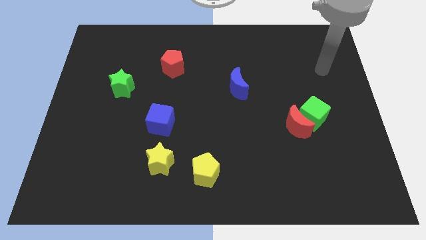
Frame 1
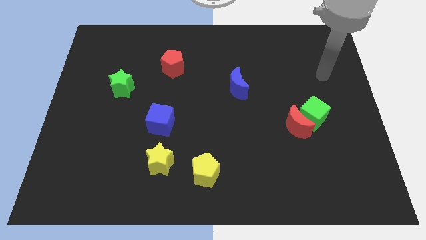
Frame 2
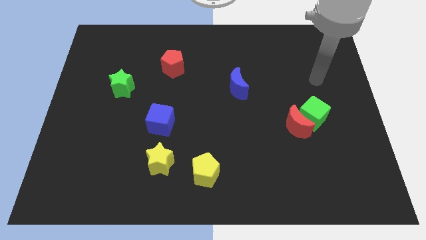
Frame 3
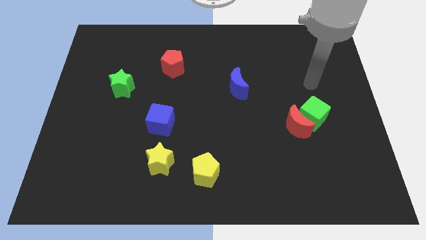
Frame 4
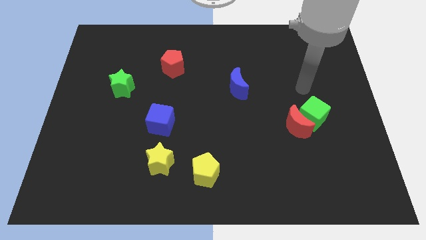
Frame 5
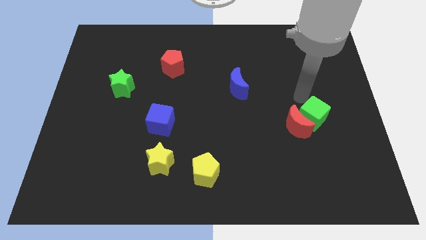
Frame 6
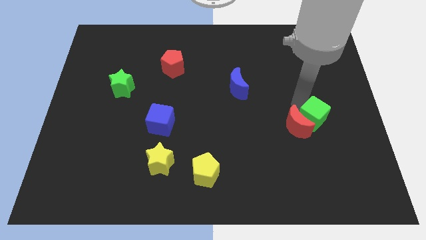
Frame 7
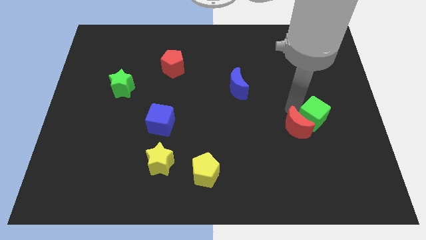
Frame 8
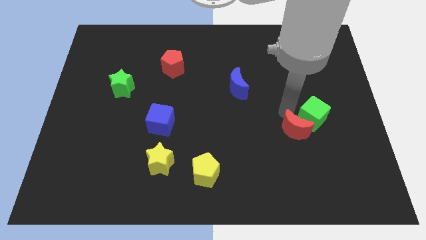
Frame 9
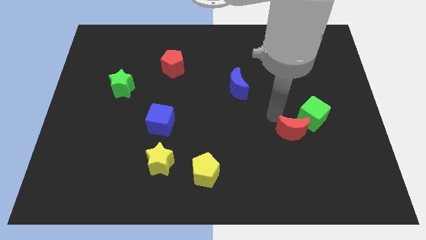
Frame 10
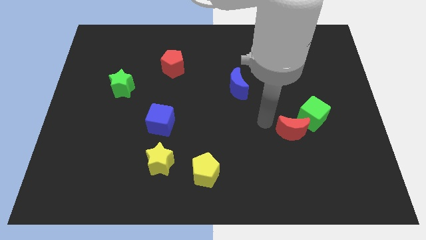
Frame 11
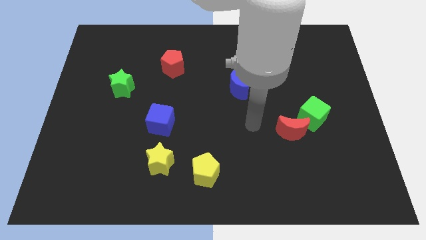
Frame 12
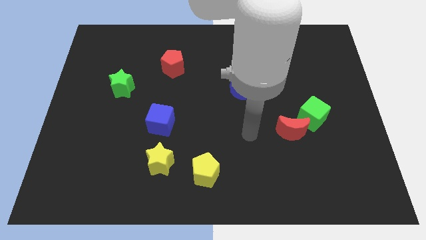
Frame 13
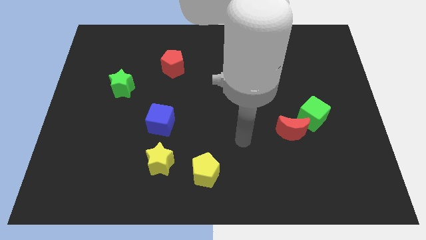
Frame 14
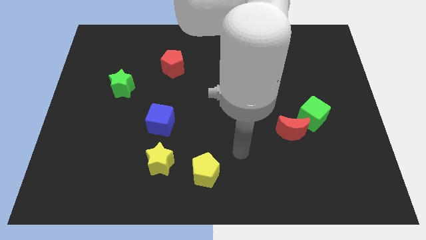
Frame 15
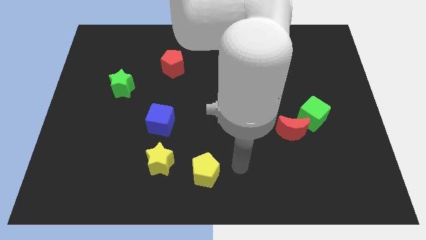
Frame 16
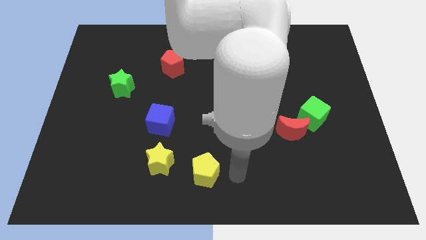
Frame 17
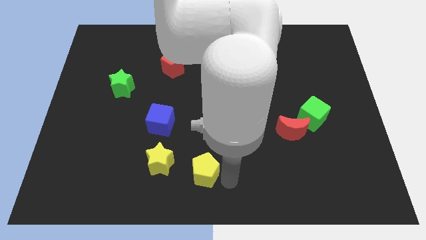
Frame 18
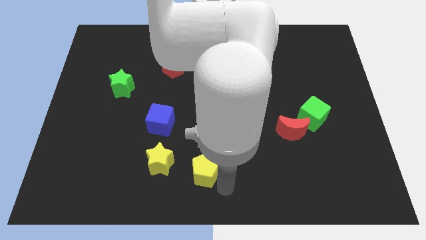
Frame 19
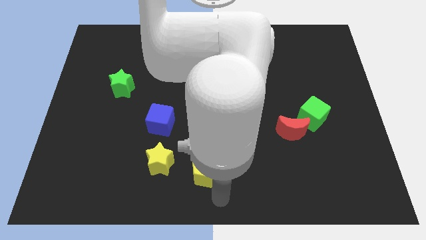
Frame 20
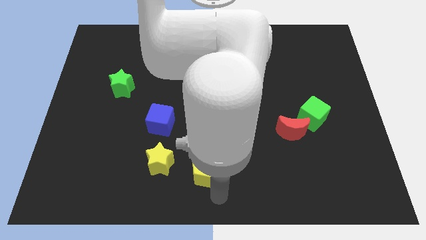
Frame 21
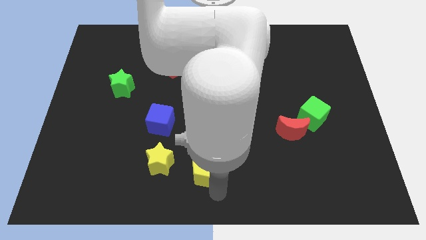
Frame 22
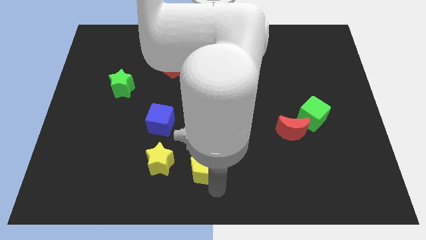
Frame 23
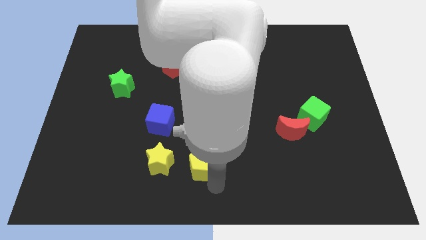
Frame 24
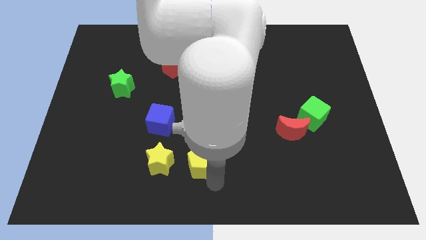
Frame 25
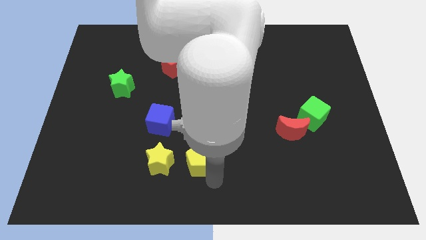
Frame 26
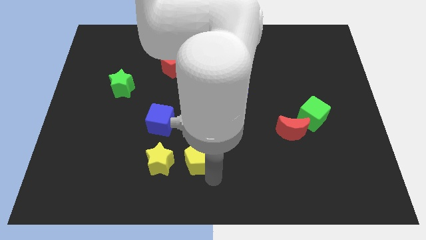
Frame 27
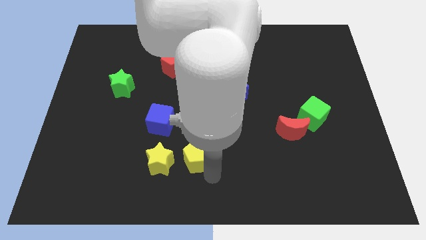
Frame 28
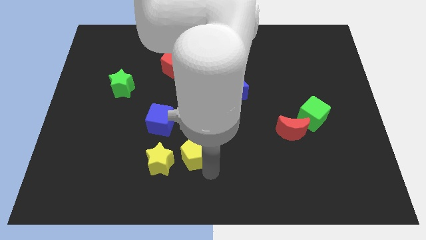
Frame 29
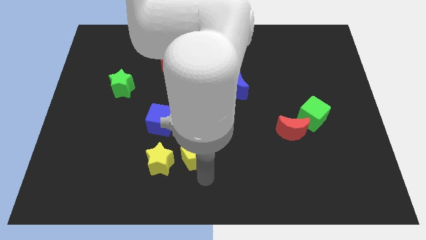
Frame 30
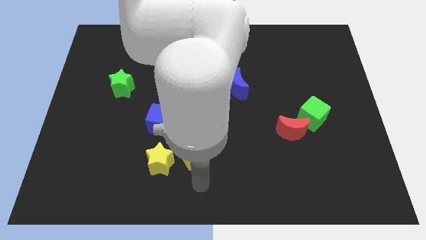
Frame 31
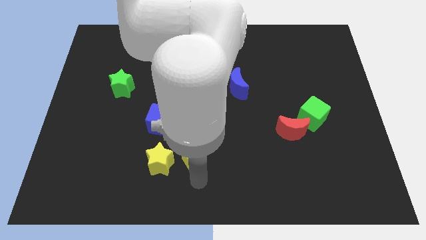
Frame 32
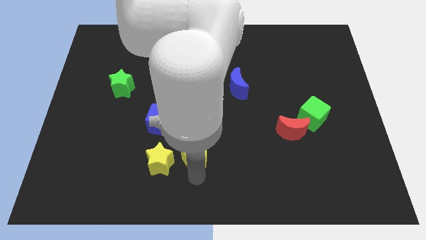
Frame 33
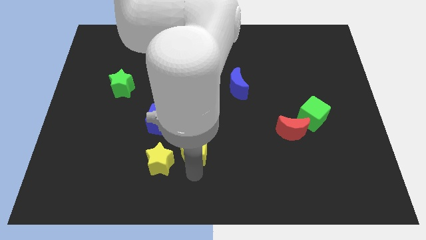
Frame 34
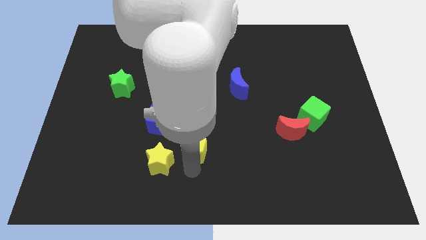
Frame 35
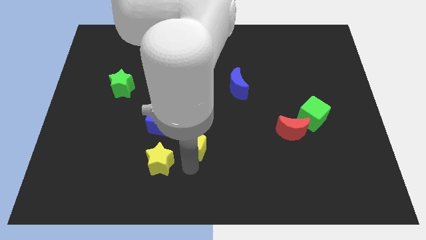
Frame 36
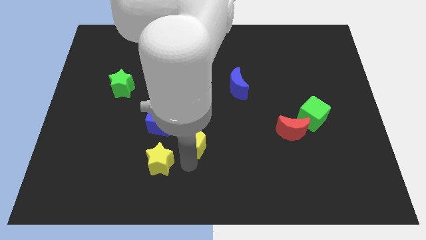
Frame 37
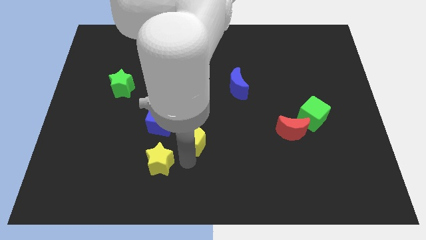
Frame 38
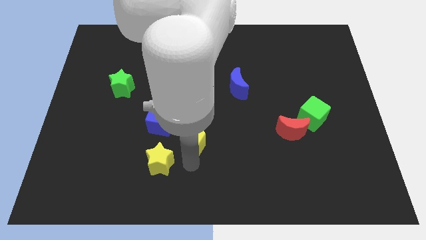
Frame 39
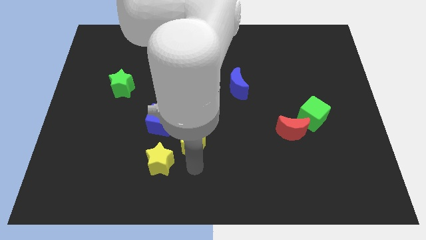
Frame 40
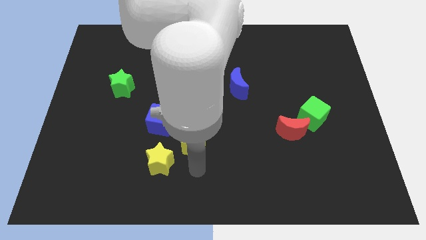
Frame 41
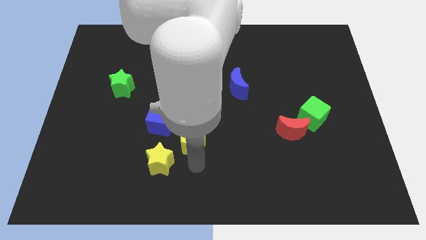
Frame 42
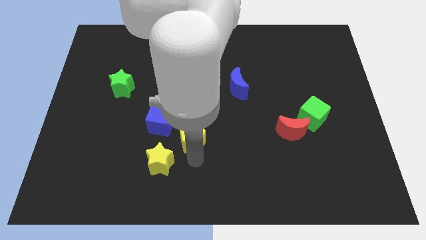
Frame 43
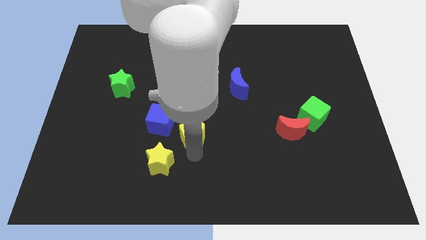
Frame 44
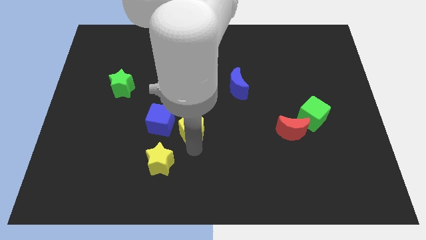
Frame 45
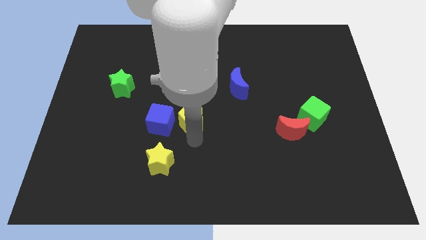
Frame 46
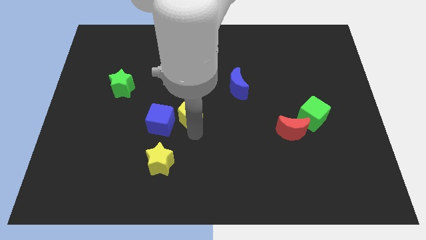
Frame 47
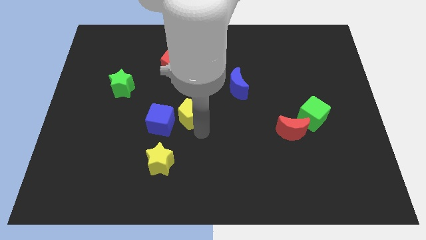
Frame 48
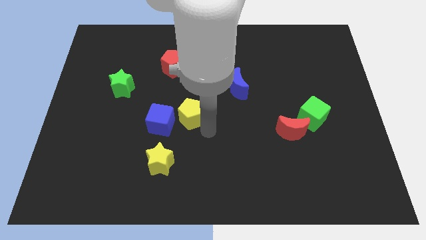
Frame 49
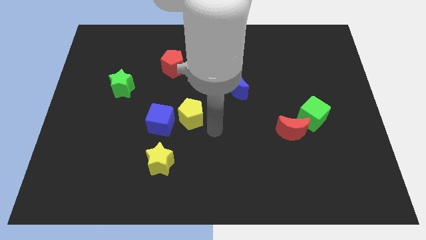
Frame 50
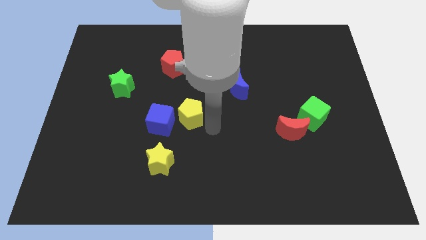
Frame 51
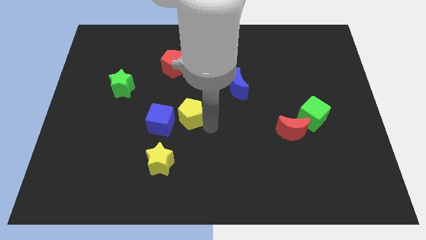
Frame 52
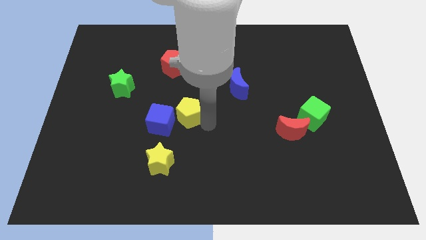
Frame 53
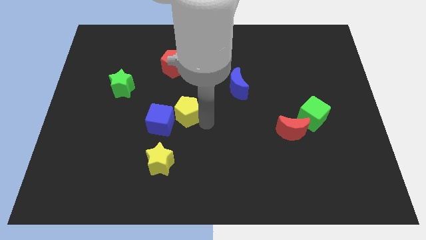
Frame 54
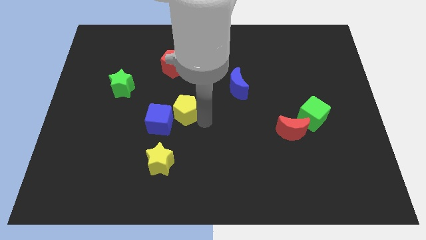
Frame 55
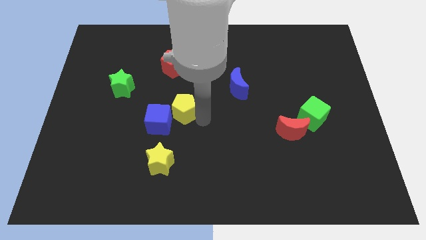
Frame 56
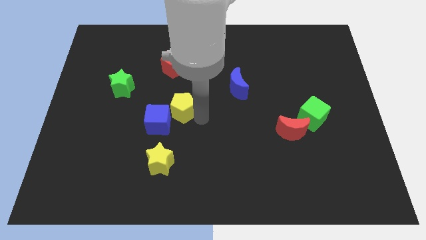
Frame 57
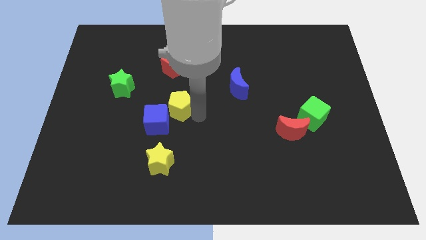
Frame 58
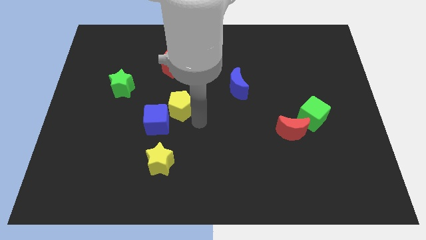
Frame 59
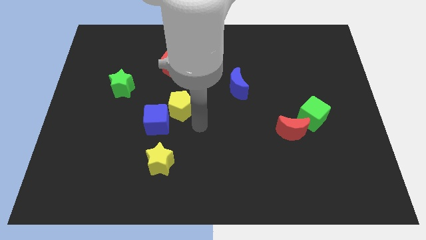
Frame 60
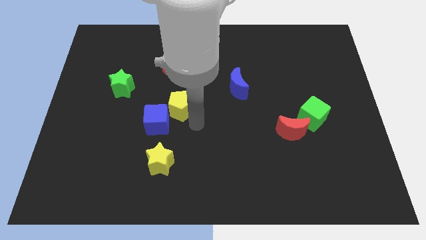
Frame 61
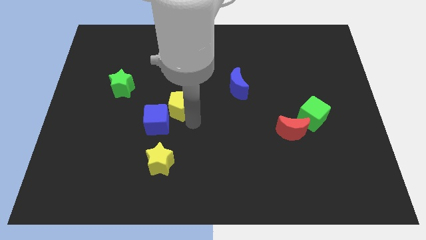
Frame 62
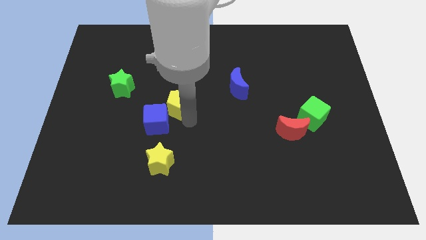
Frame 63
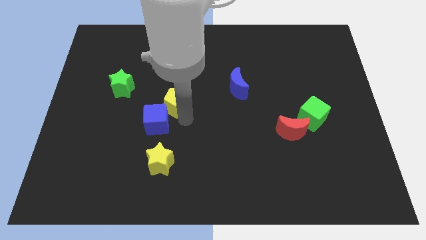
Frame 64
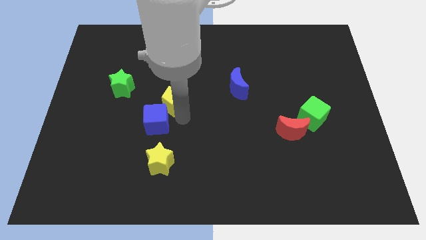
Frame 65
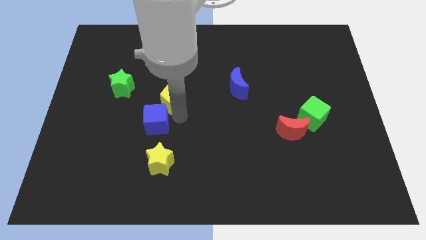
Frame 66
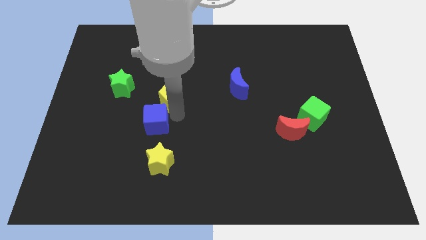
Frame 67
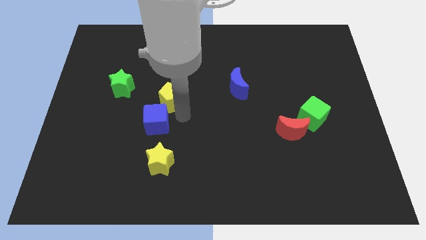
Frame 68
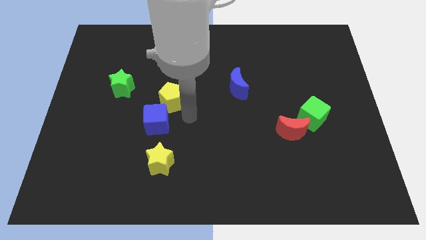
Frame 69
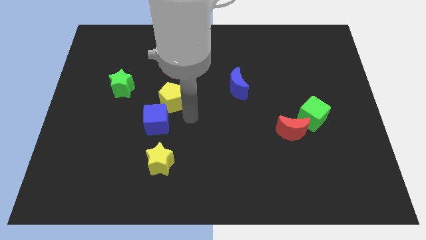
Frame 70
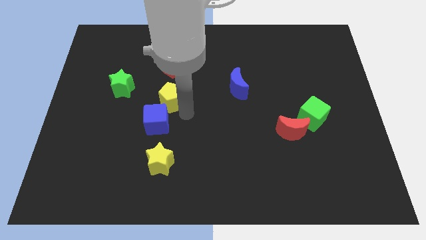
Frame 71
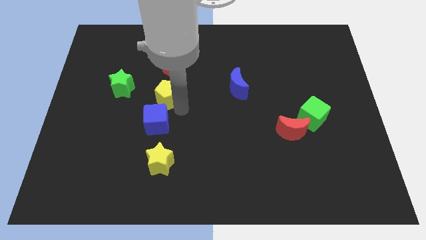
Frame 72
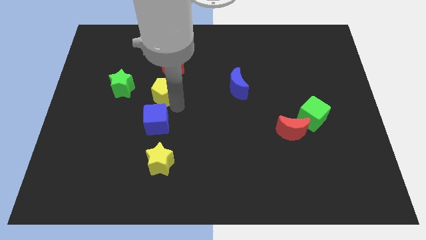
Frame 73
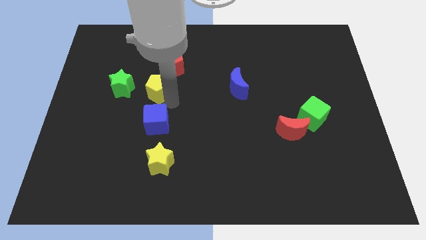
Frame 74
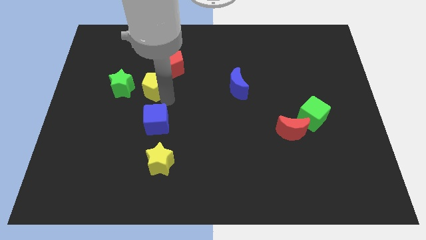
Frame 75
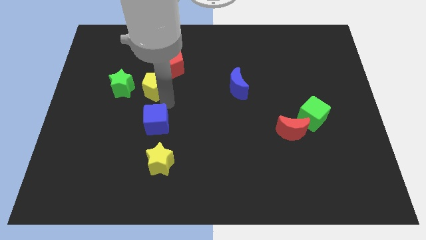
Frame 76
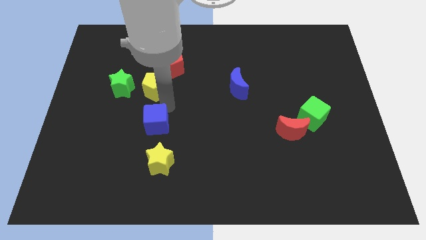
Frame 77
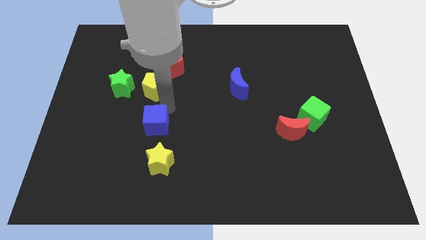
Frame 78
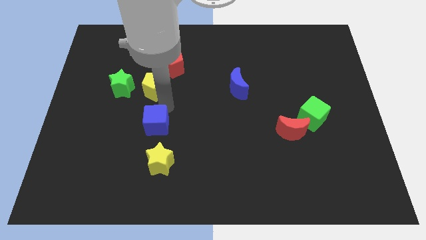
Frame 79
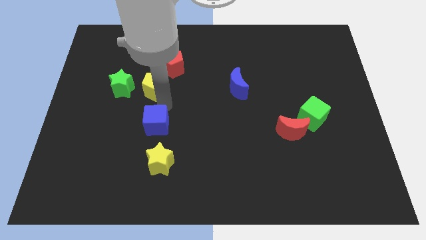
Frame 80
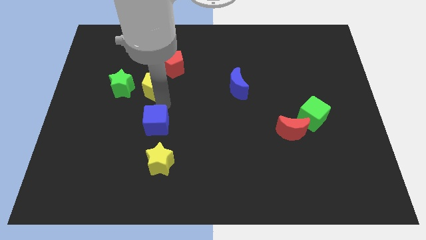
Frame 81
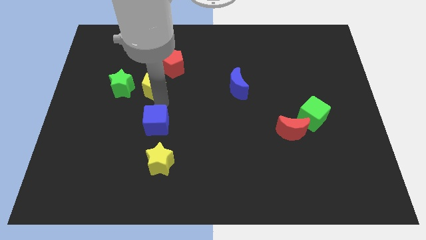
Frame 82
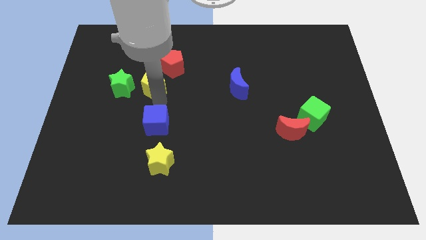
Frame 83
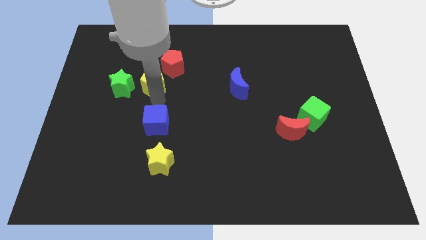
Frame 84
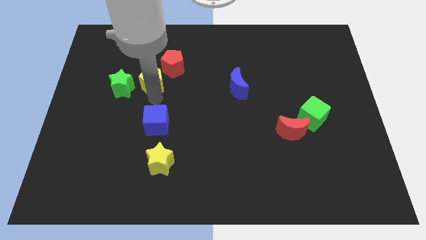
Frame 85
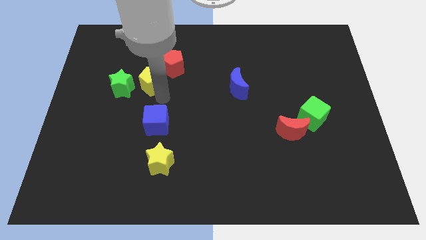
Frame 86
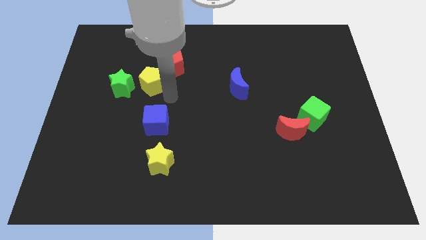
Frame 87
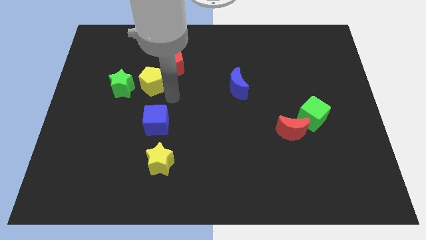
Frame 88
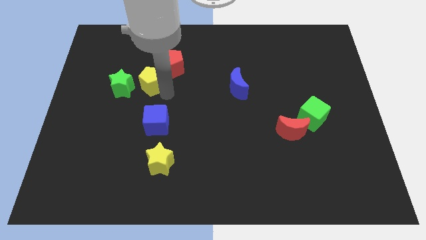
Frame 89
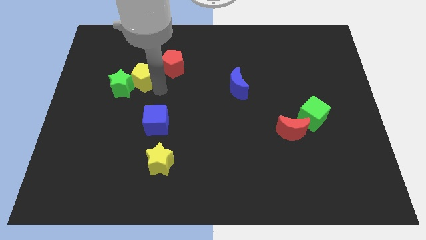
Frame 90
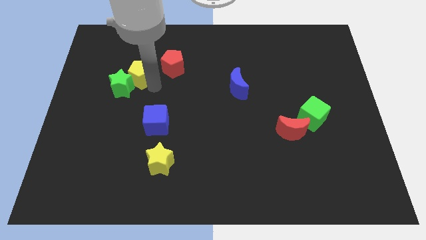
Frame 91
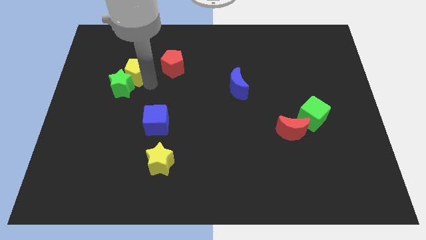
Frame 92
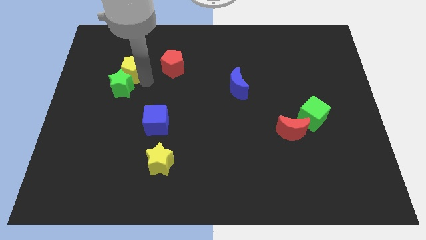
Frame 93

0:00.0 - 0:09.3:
put the yellow pentagon to the top left side of the green star
